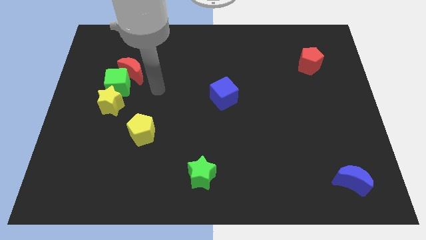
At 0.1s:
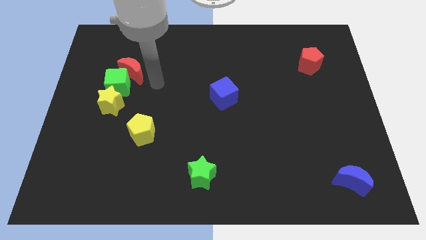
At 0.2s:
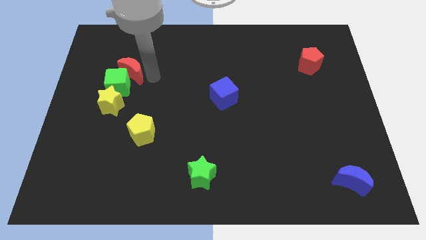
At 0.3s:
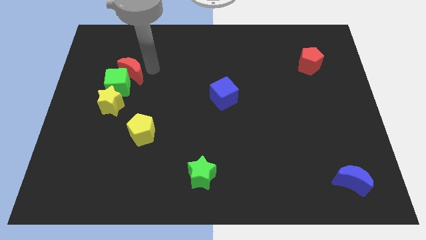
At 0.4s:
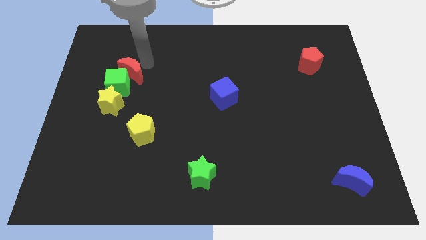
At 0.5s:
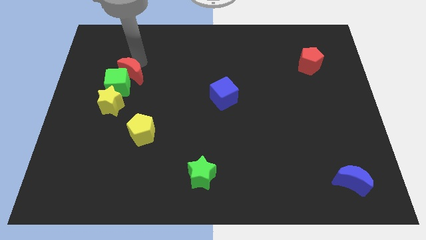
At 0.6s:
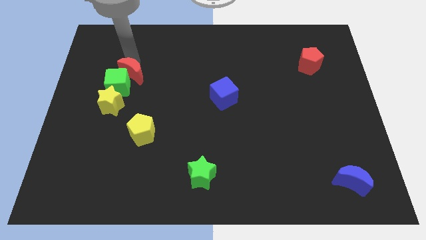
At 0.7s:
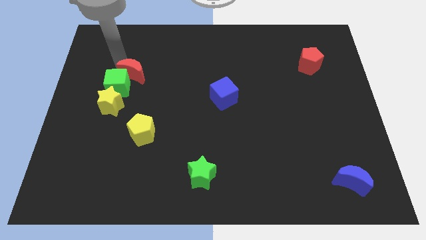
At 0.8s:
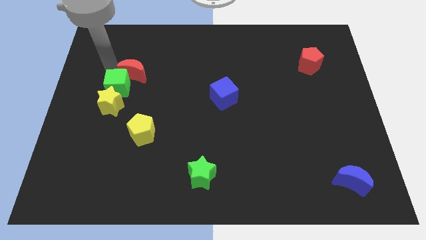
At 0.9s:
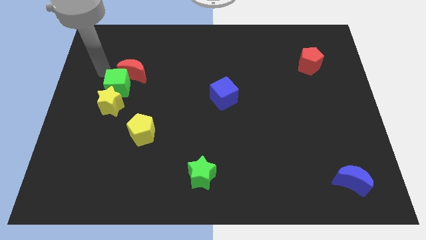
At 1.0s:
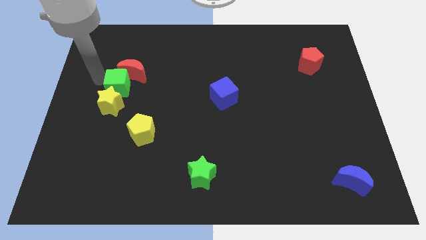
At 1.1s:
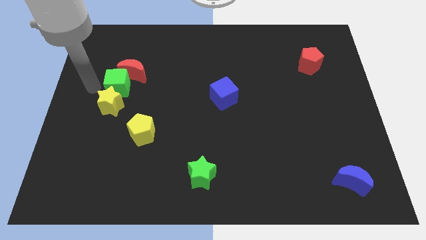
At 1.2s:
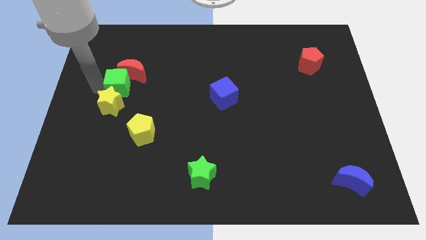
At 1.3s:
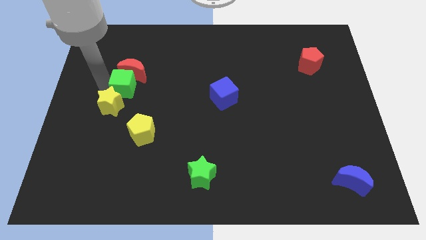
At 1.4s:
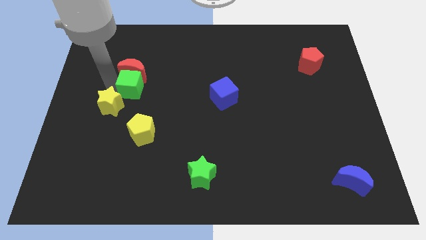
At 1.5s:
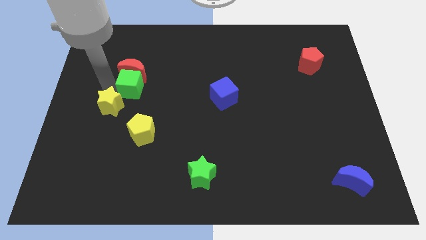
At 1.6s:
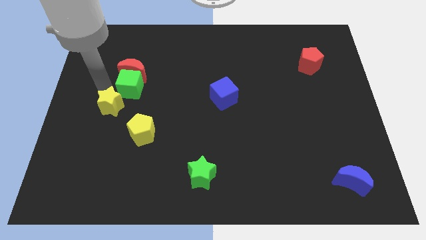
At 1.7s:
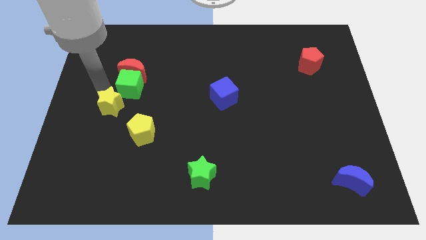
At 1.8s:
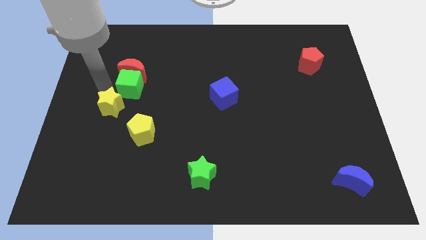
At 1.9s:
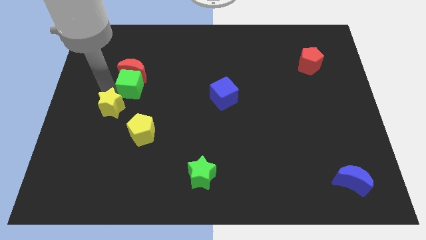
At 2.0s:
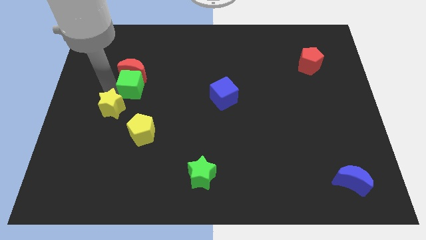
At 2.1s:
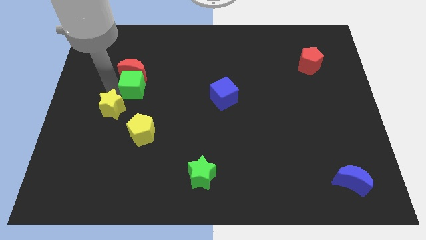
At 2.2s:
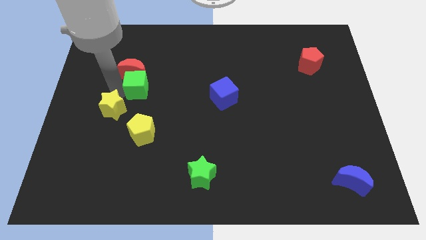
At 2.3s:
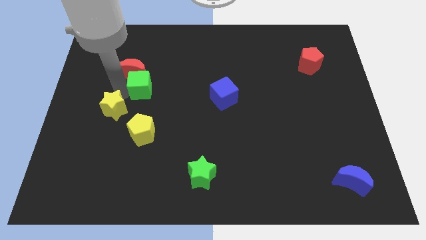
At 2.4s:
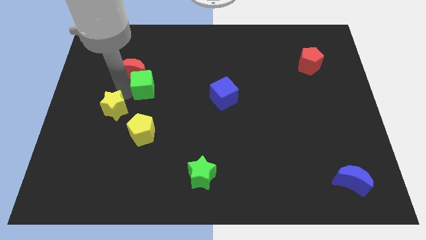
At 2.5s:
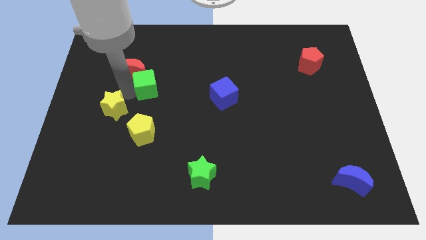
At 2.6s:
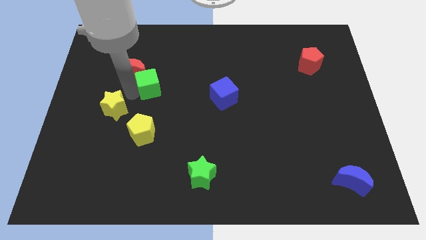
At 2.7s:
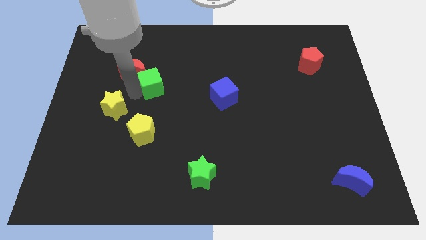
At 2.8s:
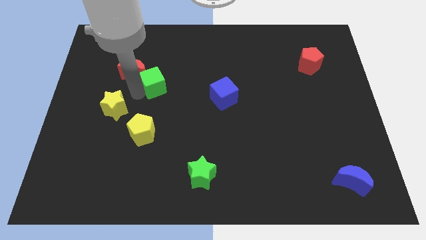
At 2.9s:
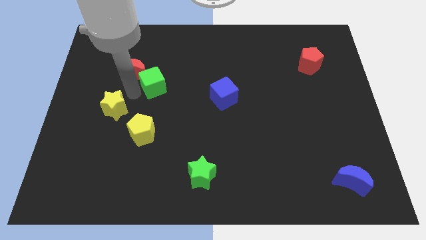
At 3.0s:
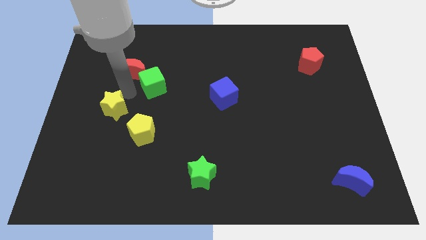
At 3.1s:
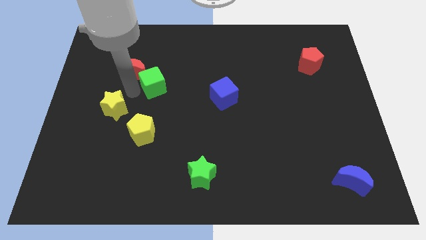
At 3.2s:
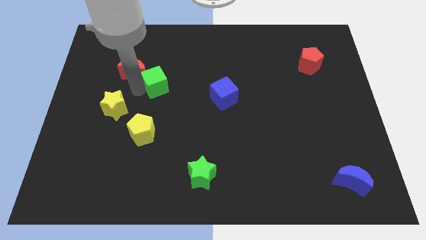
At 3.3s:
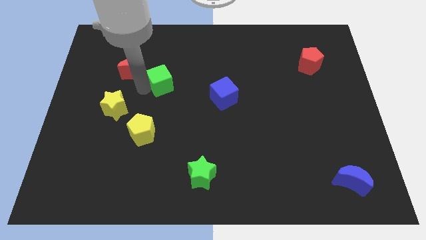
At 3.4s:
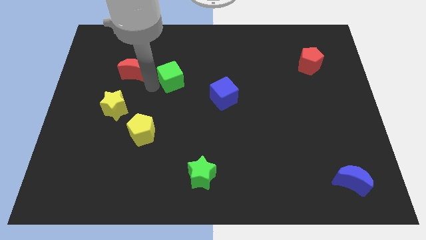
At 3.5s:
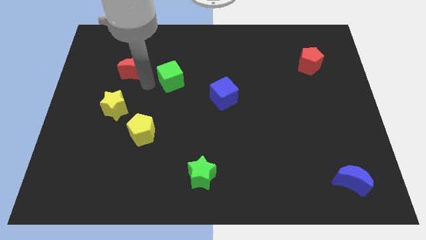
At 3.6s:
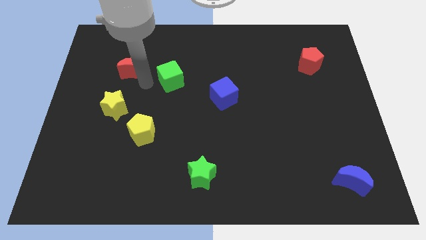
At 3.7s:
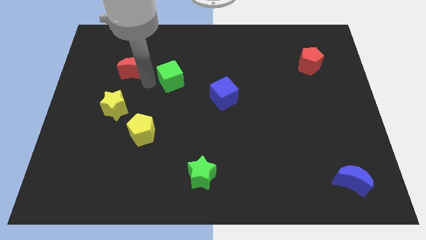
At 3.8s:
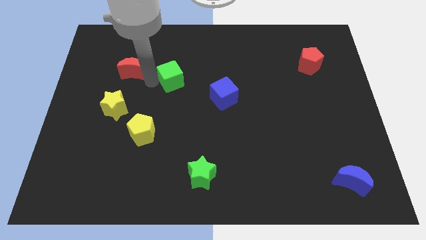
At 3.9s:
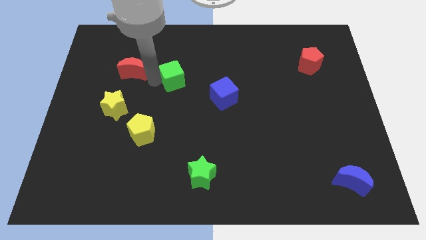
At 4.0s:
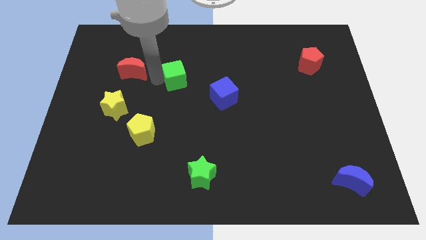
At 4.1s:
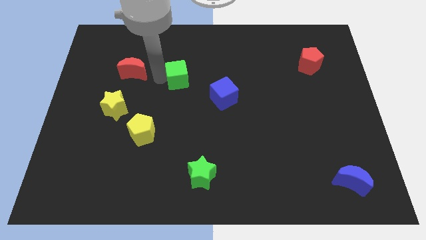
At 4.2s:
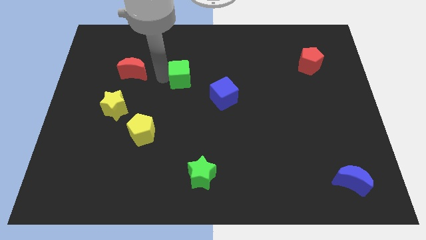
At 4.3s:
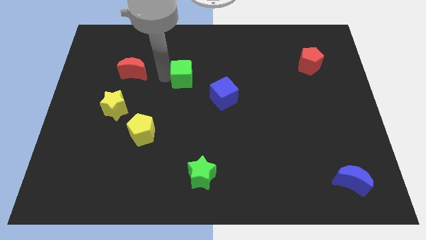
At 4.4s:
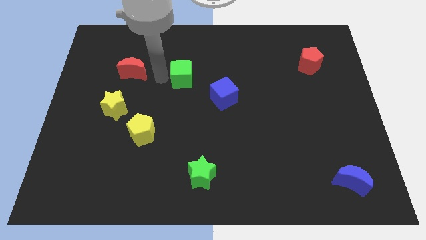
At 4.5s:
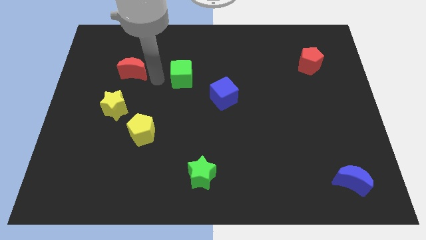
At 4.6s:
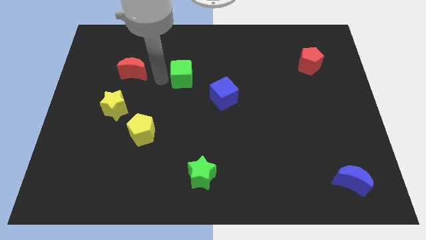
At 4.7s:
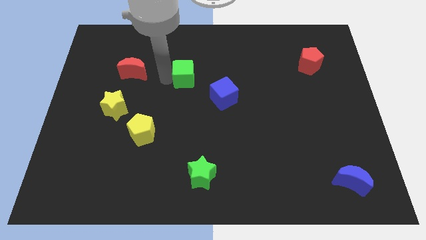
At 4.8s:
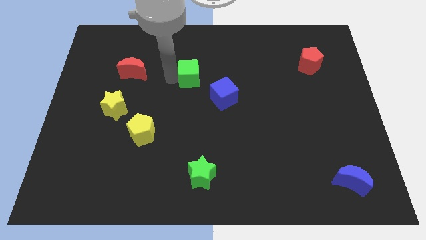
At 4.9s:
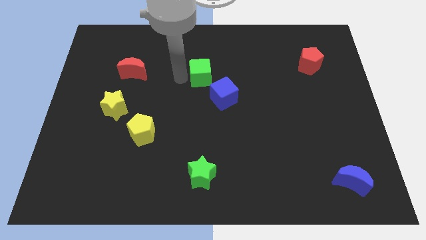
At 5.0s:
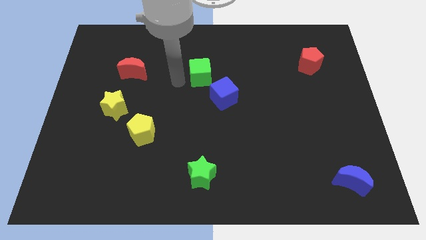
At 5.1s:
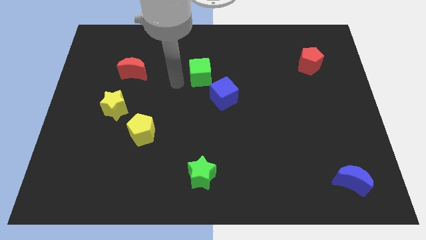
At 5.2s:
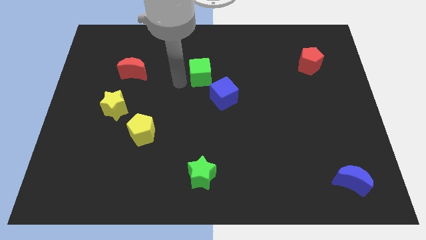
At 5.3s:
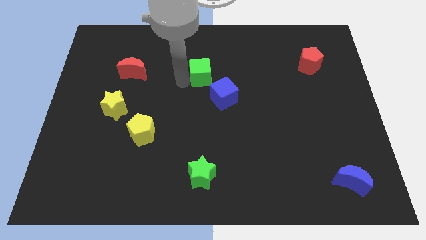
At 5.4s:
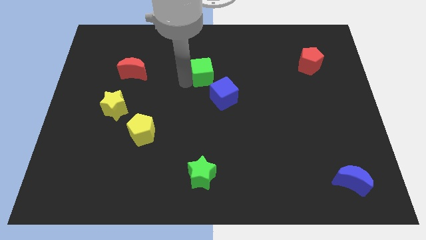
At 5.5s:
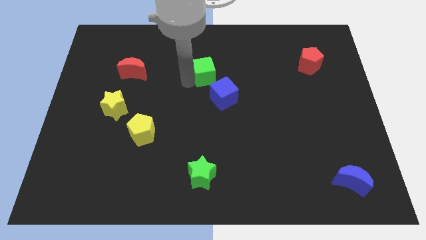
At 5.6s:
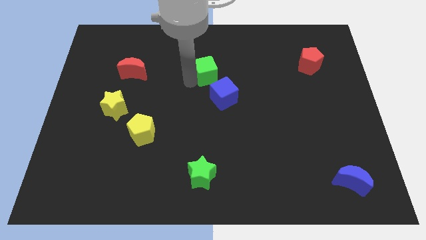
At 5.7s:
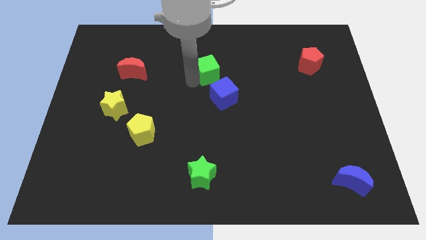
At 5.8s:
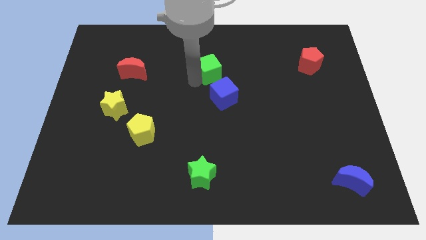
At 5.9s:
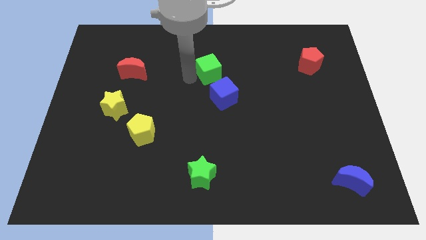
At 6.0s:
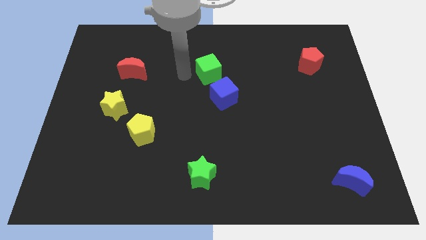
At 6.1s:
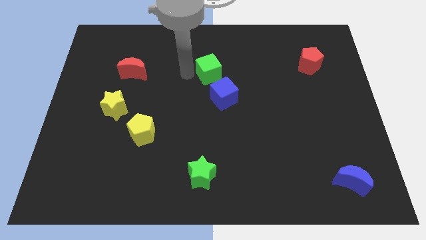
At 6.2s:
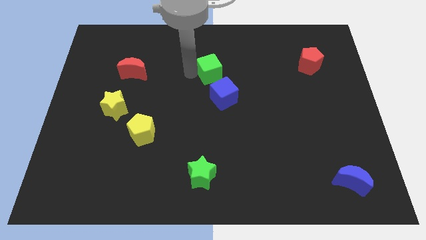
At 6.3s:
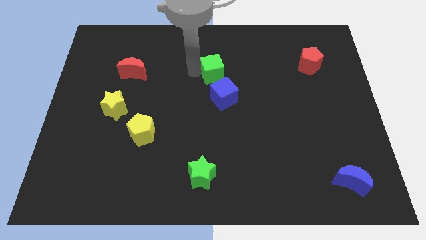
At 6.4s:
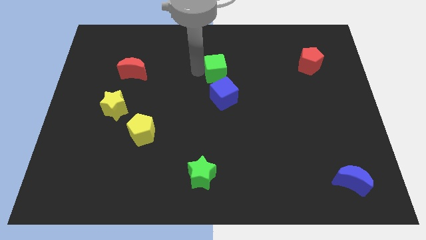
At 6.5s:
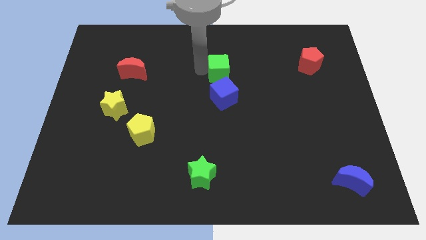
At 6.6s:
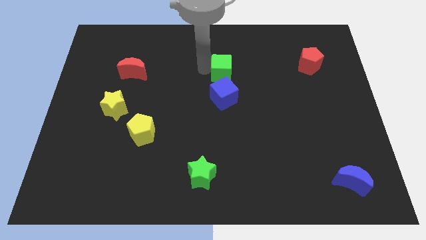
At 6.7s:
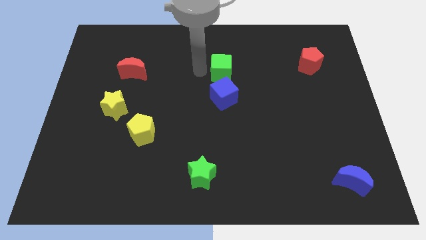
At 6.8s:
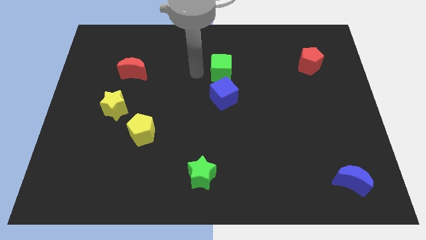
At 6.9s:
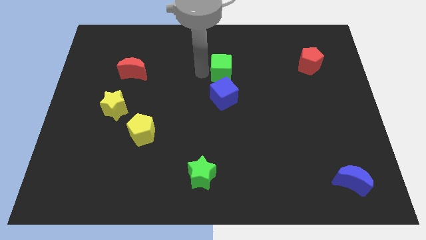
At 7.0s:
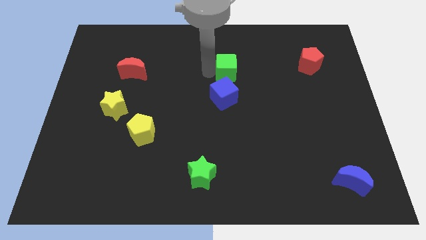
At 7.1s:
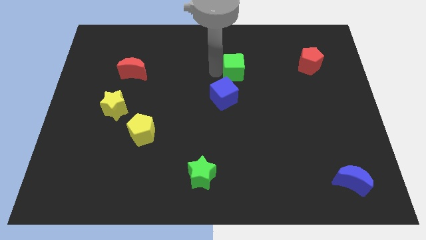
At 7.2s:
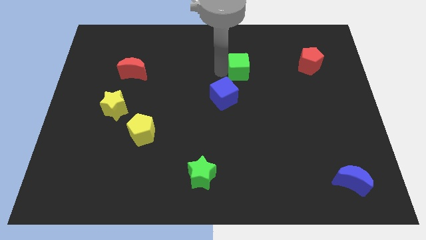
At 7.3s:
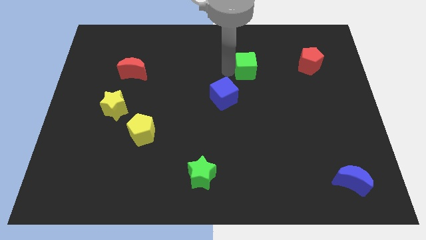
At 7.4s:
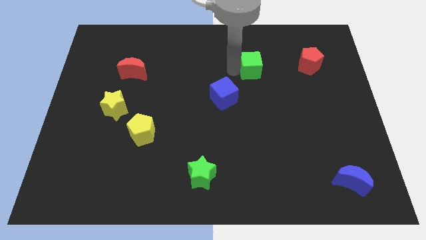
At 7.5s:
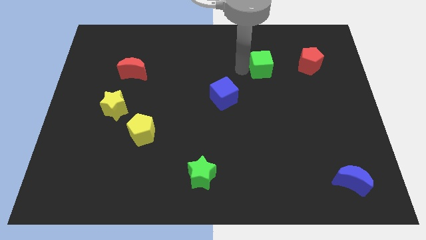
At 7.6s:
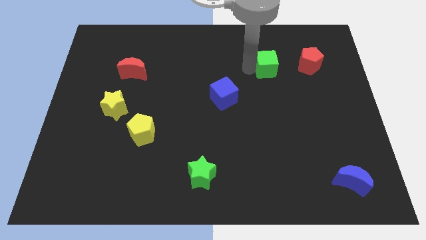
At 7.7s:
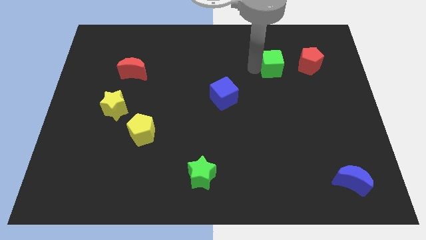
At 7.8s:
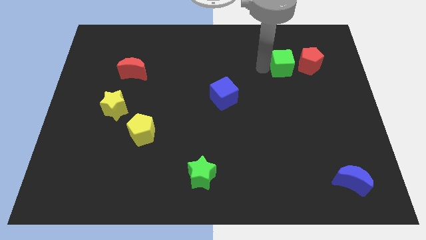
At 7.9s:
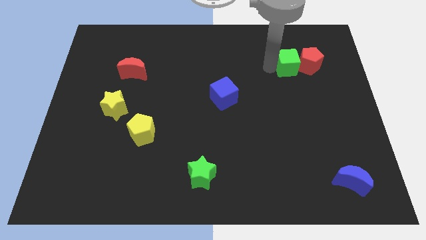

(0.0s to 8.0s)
move the green cube next to the red pentagon
